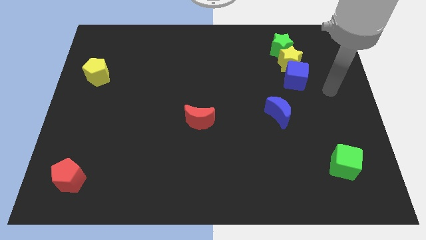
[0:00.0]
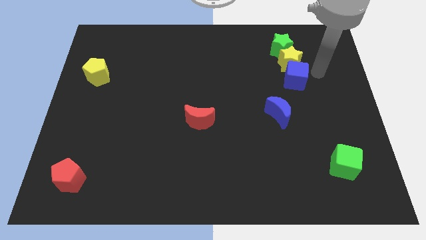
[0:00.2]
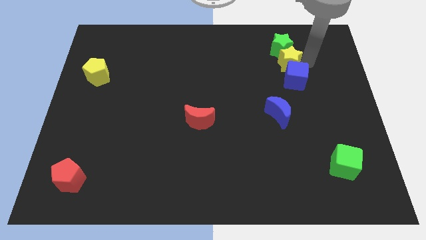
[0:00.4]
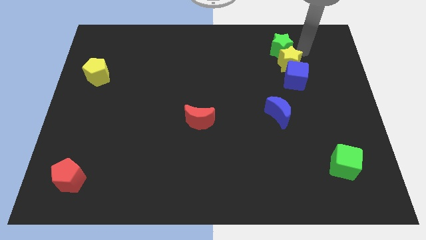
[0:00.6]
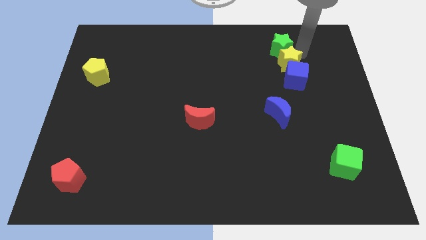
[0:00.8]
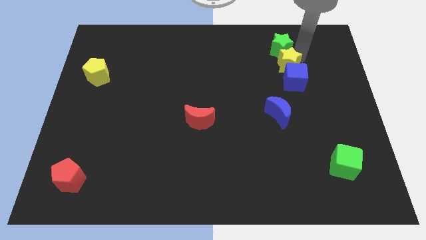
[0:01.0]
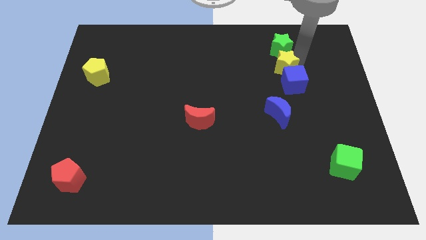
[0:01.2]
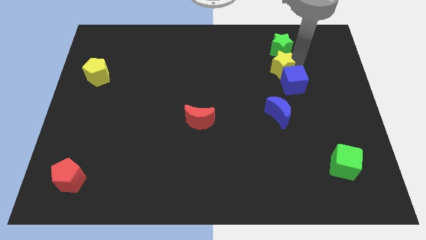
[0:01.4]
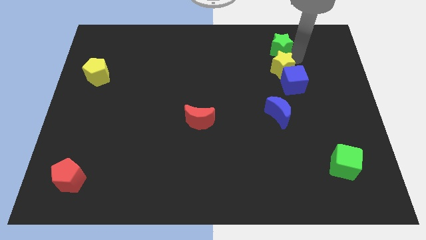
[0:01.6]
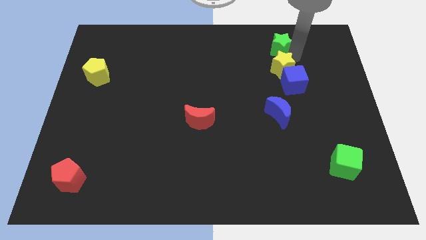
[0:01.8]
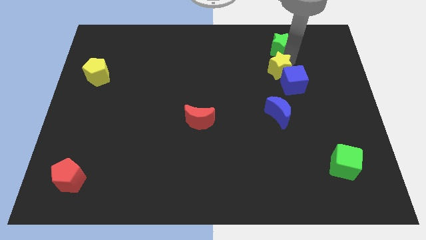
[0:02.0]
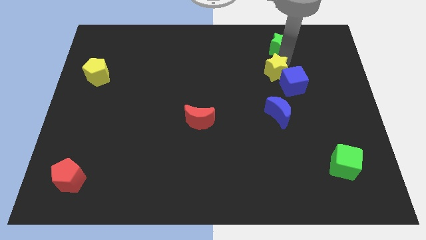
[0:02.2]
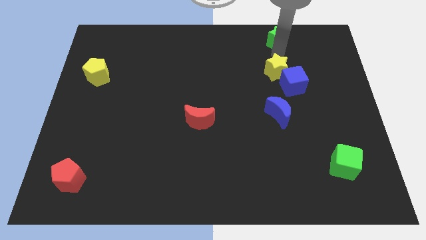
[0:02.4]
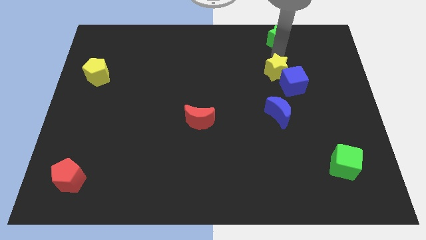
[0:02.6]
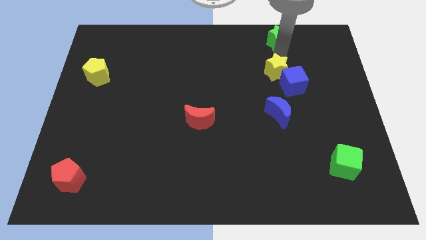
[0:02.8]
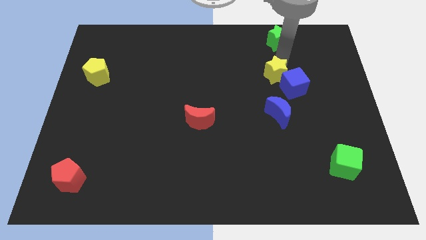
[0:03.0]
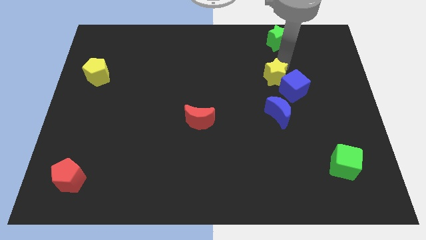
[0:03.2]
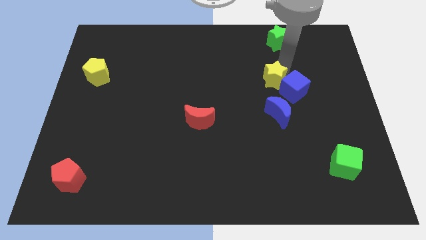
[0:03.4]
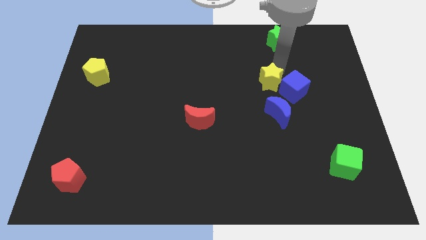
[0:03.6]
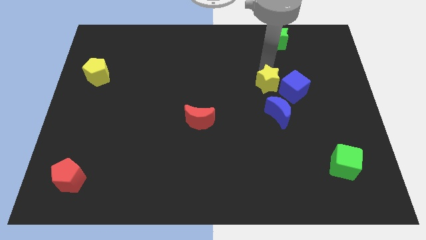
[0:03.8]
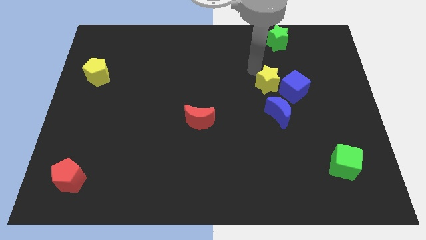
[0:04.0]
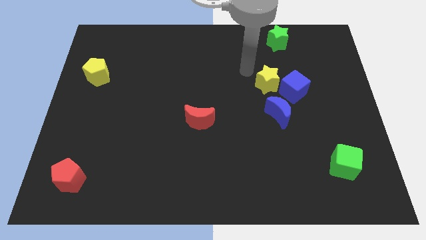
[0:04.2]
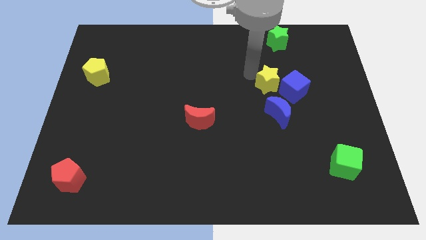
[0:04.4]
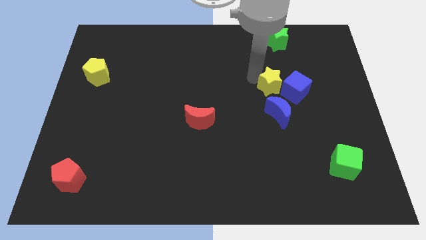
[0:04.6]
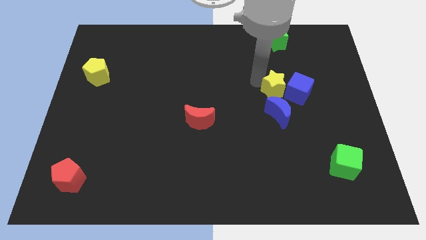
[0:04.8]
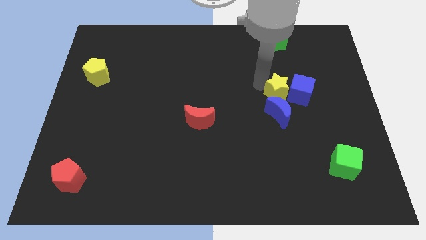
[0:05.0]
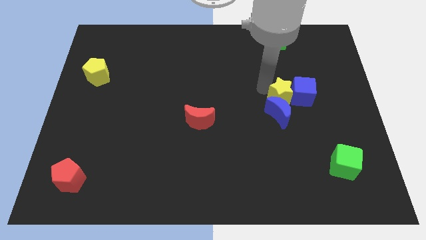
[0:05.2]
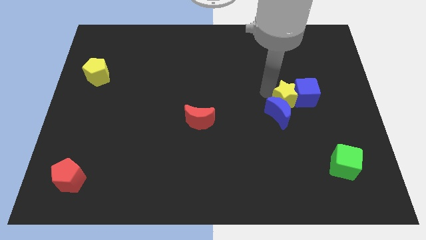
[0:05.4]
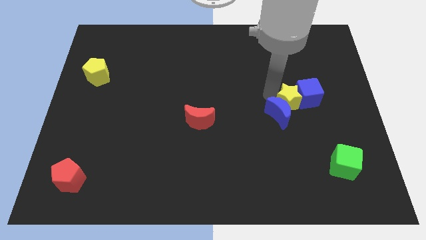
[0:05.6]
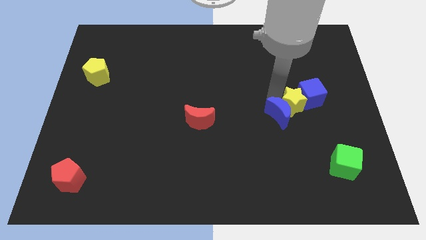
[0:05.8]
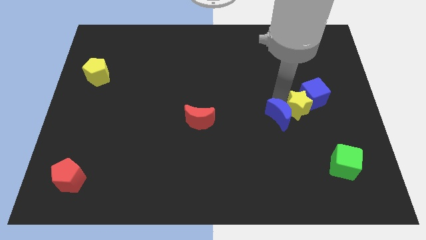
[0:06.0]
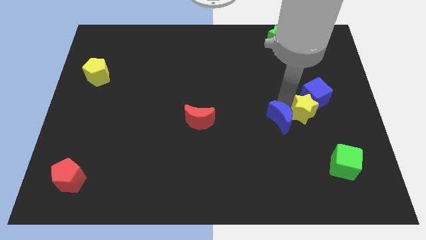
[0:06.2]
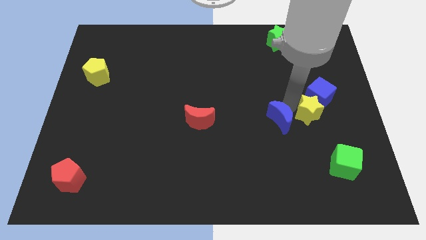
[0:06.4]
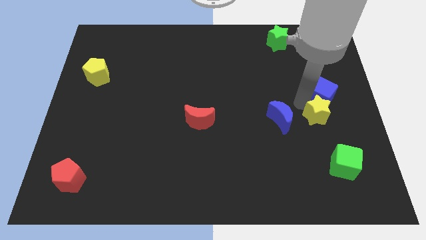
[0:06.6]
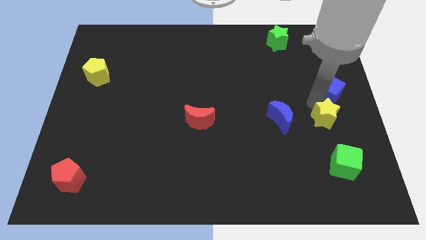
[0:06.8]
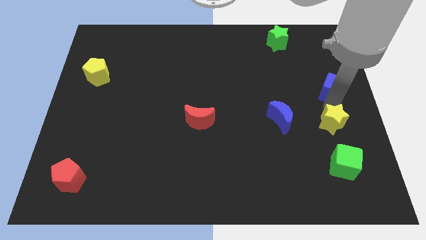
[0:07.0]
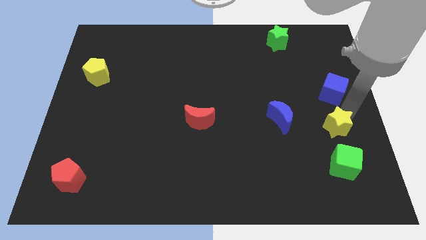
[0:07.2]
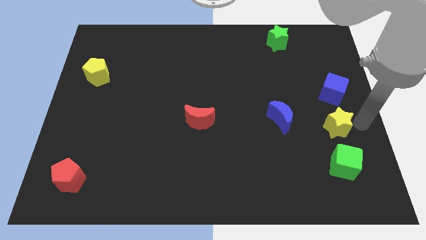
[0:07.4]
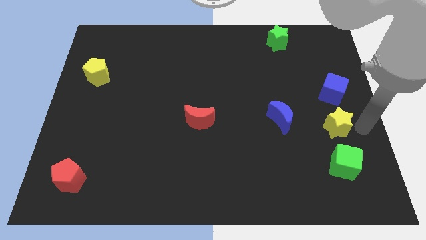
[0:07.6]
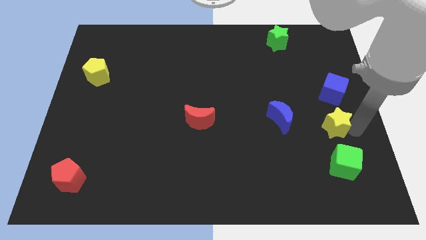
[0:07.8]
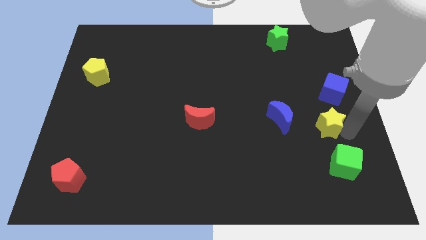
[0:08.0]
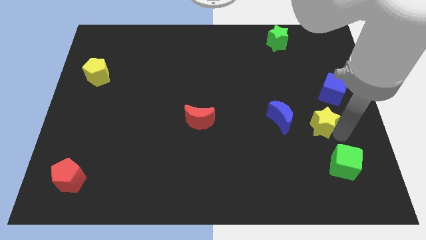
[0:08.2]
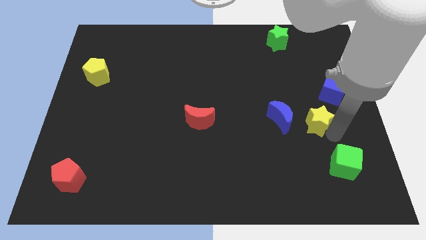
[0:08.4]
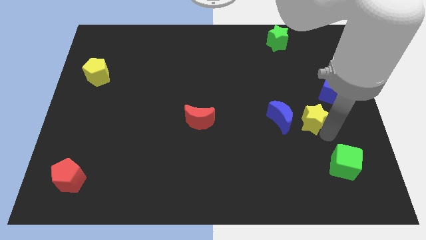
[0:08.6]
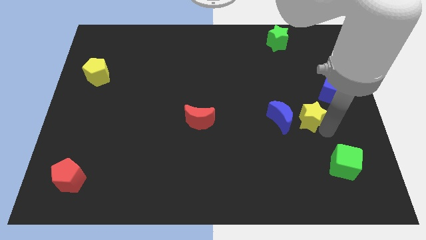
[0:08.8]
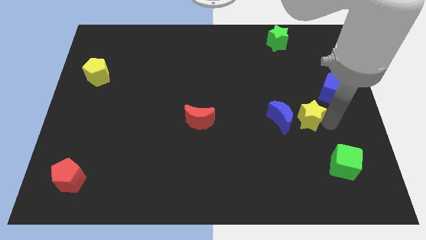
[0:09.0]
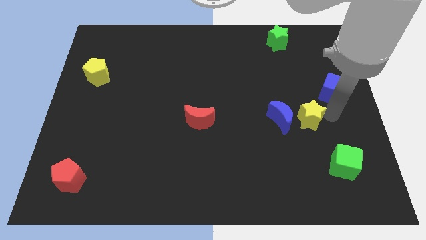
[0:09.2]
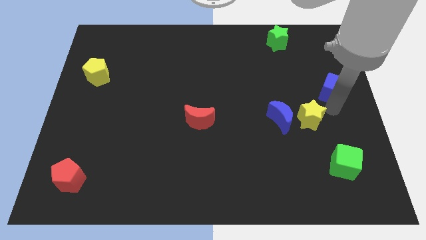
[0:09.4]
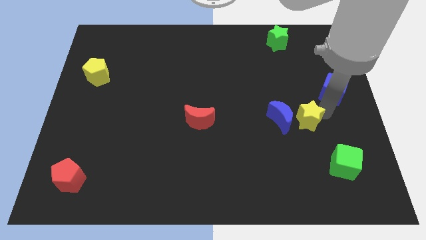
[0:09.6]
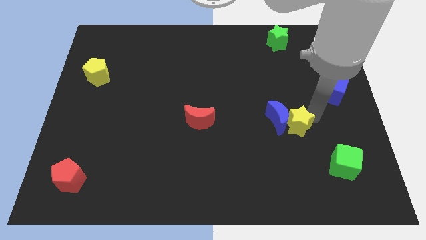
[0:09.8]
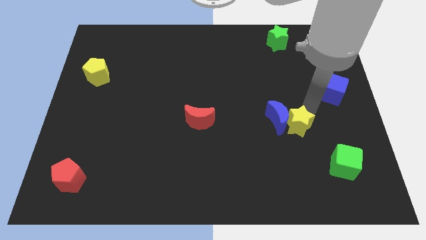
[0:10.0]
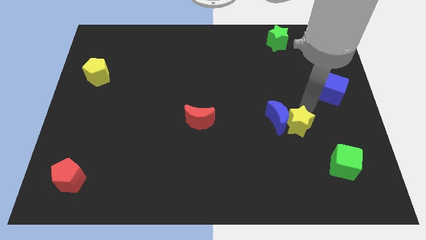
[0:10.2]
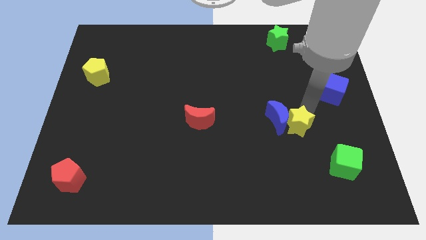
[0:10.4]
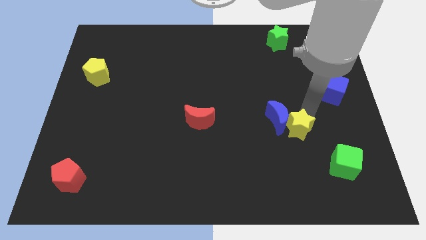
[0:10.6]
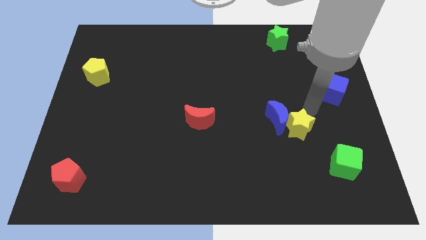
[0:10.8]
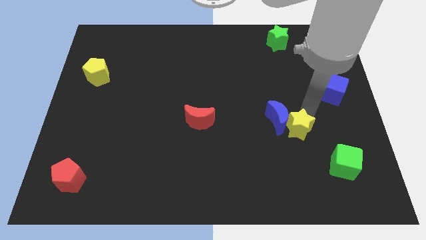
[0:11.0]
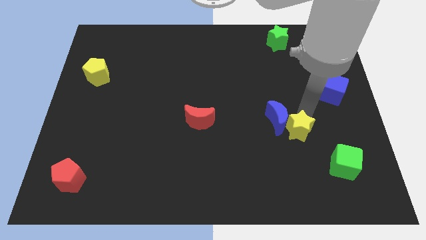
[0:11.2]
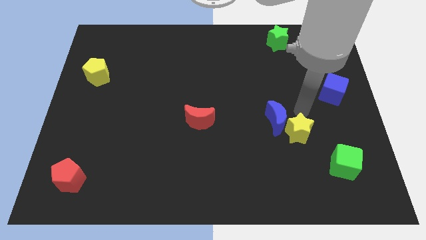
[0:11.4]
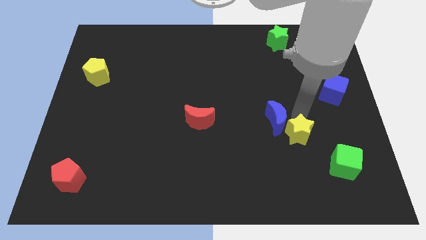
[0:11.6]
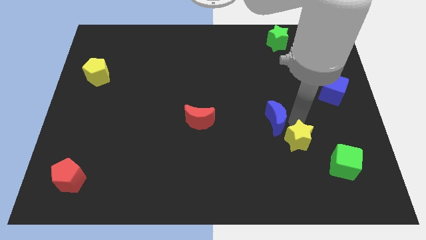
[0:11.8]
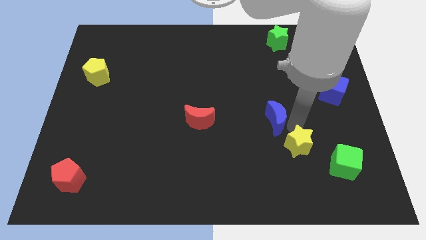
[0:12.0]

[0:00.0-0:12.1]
push the yellow star to the left side of the green cube

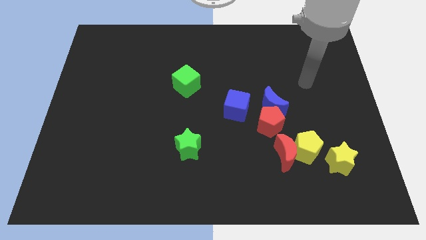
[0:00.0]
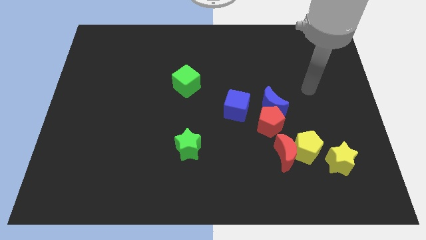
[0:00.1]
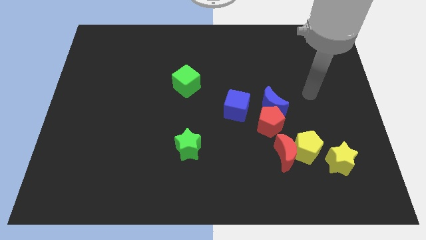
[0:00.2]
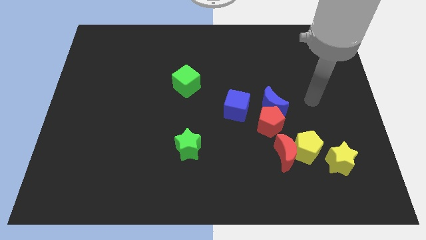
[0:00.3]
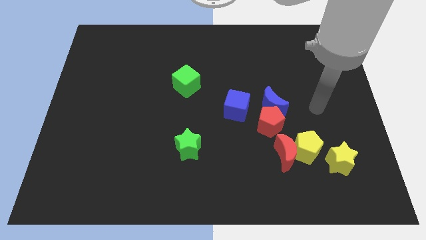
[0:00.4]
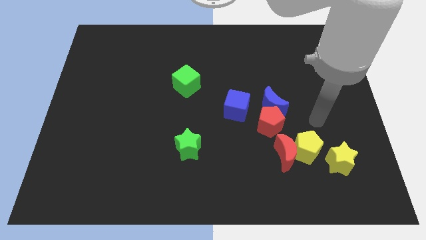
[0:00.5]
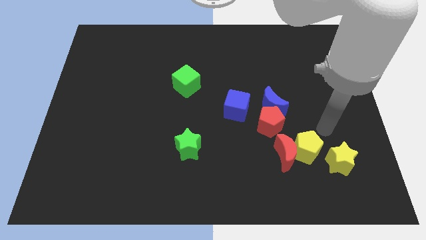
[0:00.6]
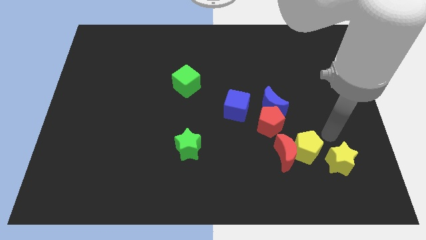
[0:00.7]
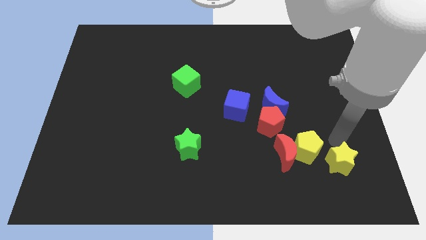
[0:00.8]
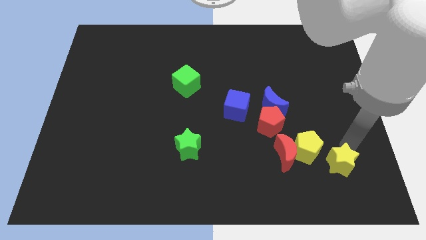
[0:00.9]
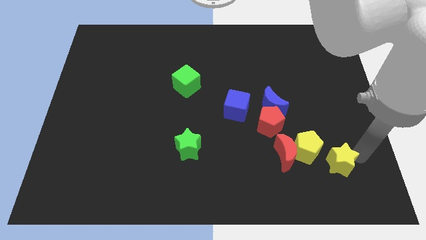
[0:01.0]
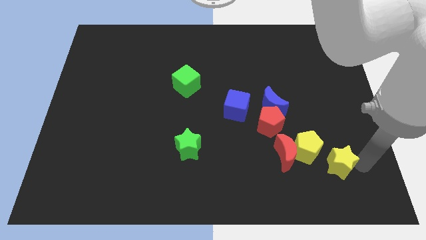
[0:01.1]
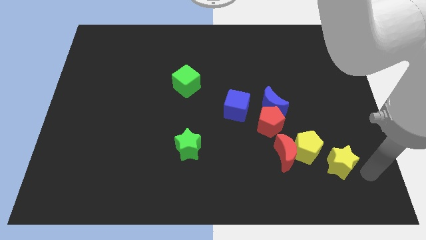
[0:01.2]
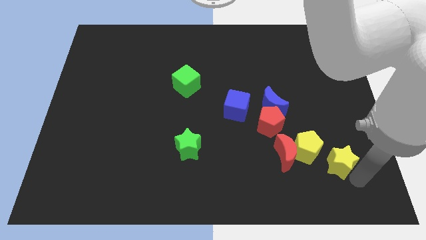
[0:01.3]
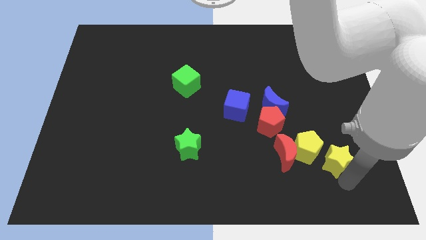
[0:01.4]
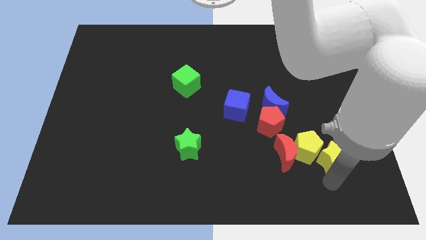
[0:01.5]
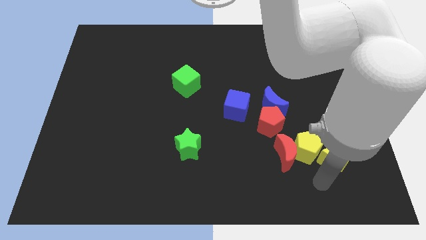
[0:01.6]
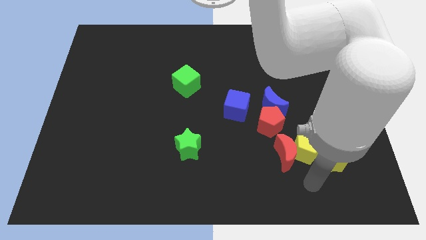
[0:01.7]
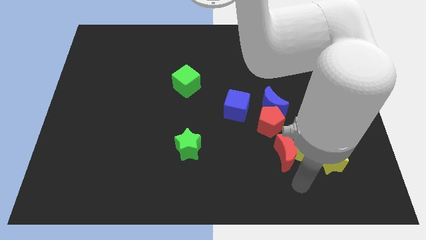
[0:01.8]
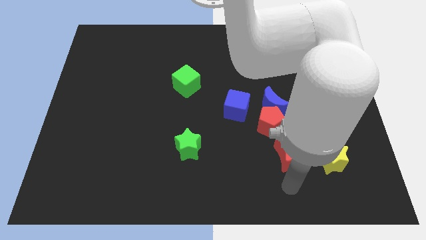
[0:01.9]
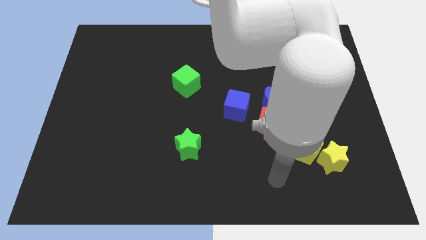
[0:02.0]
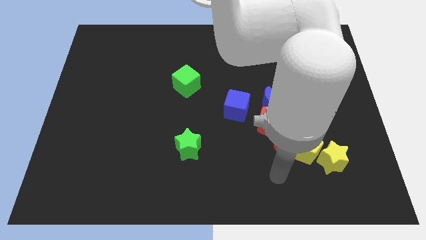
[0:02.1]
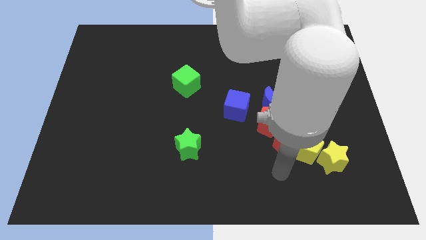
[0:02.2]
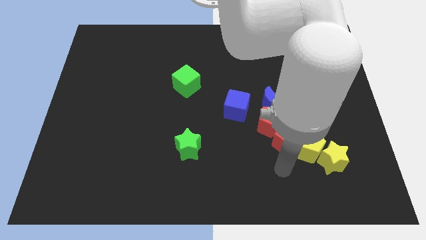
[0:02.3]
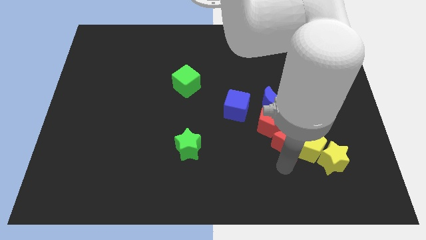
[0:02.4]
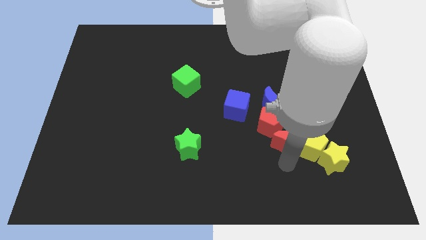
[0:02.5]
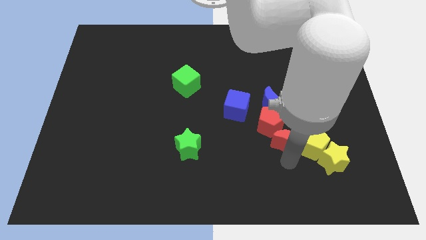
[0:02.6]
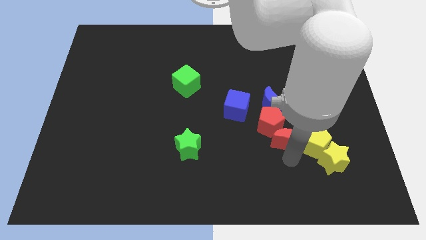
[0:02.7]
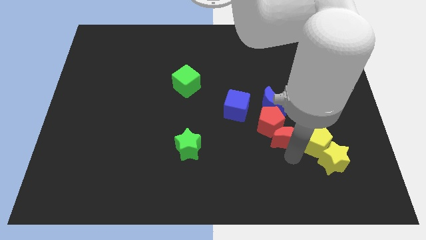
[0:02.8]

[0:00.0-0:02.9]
move the red moon right of the red pentagon
